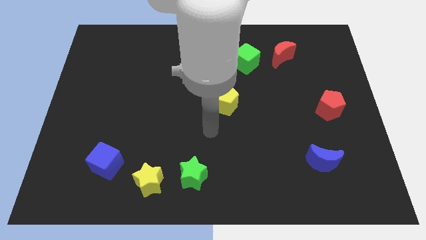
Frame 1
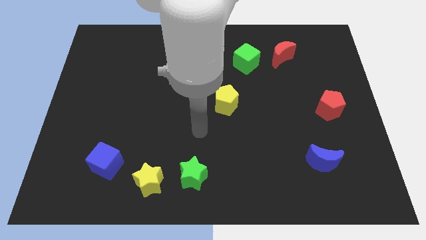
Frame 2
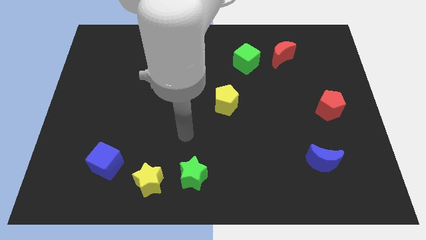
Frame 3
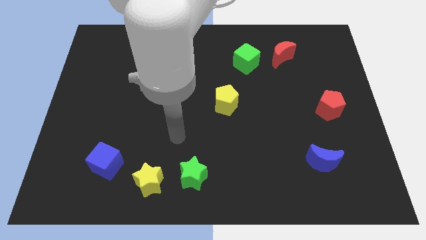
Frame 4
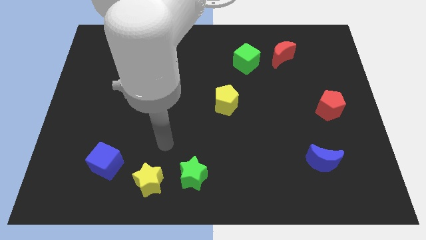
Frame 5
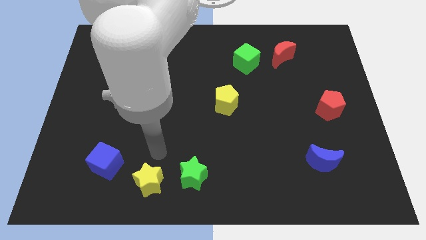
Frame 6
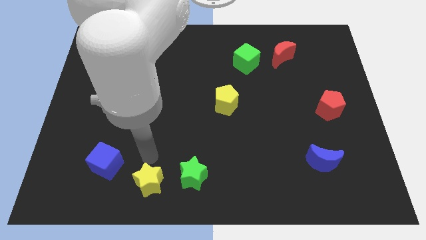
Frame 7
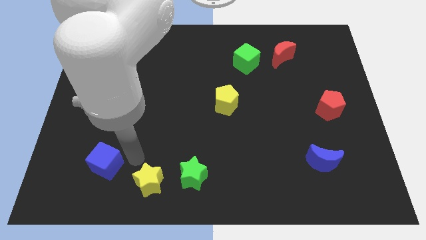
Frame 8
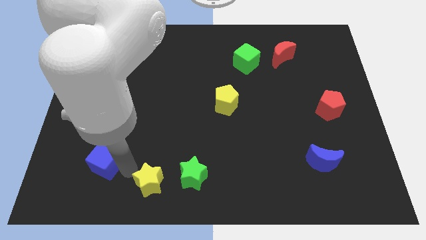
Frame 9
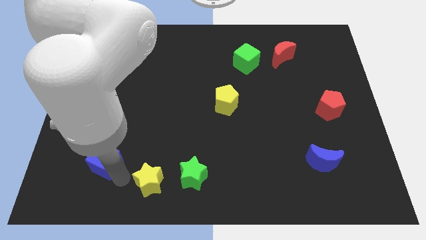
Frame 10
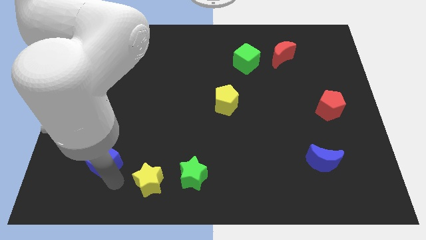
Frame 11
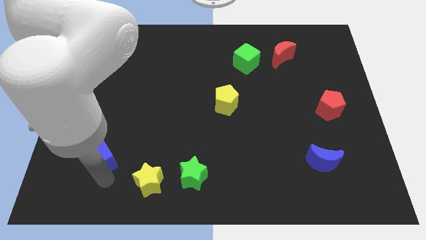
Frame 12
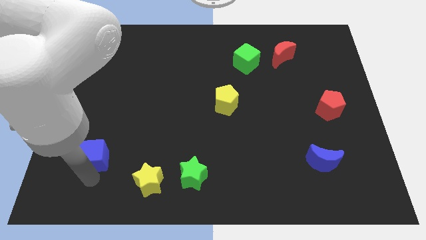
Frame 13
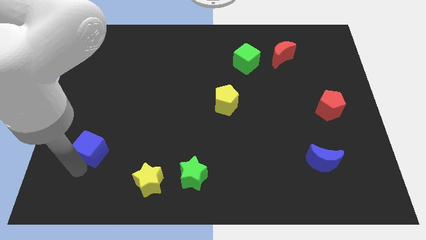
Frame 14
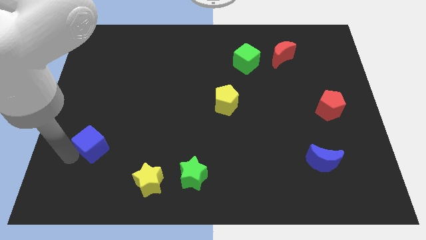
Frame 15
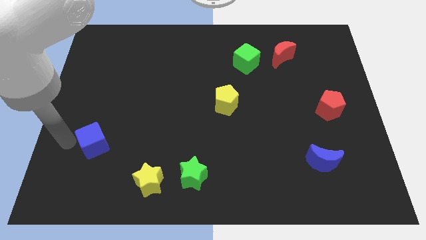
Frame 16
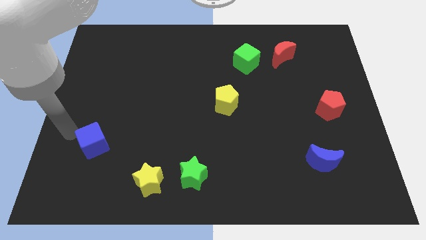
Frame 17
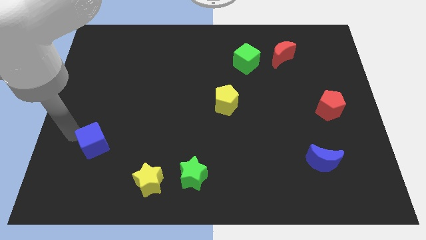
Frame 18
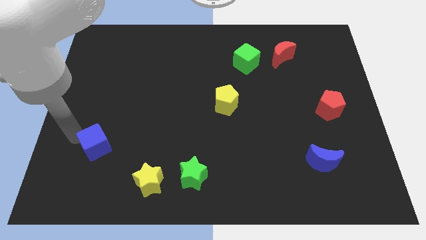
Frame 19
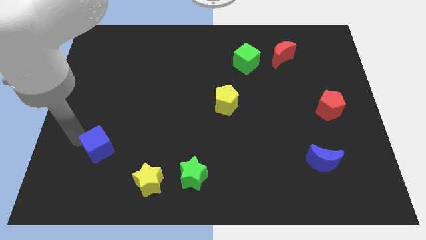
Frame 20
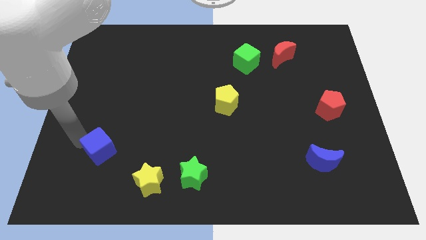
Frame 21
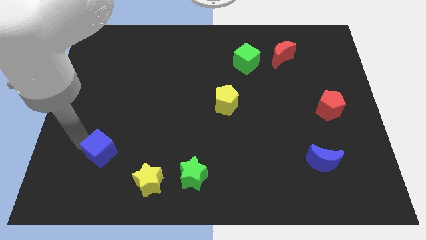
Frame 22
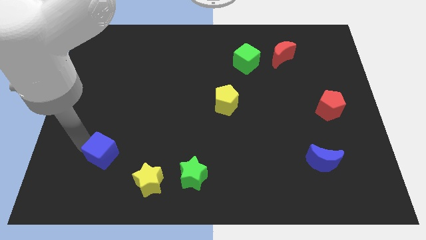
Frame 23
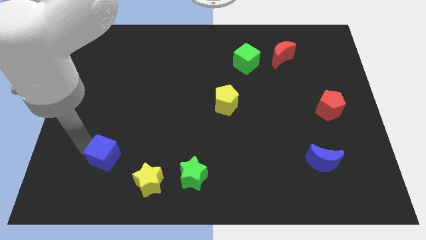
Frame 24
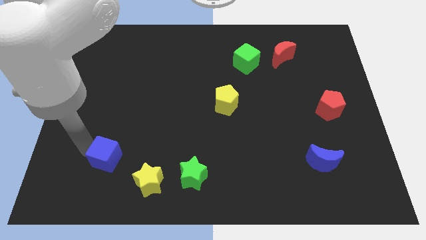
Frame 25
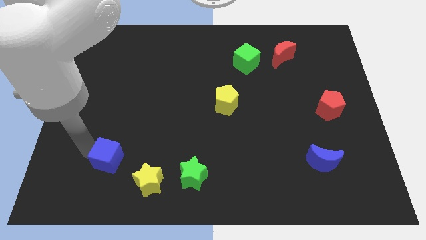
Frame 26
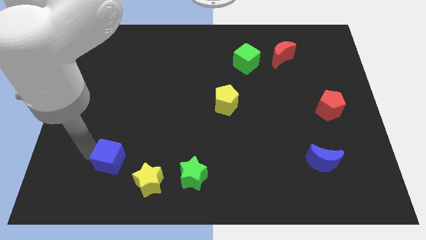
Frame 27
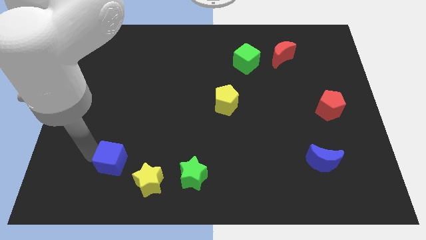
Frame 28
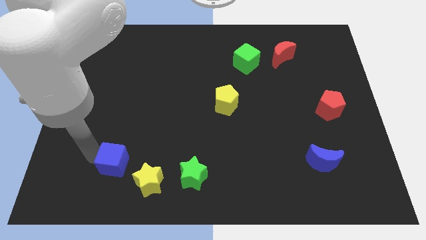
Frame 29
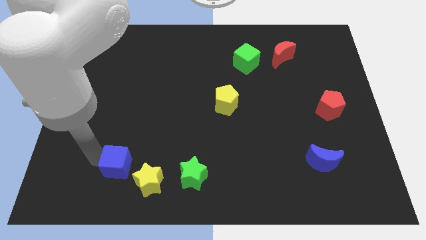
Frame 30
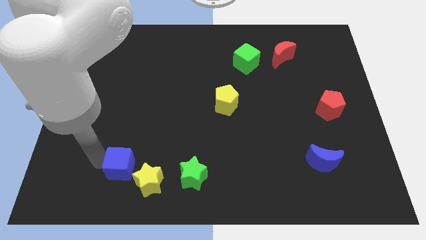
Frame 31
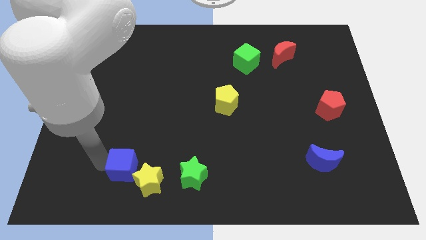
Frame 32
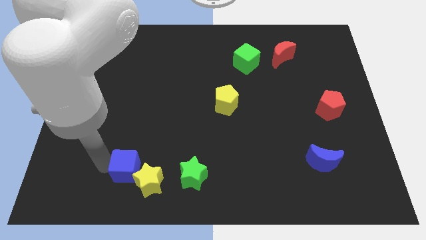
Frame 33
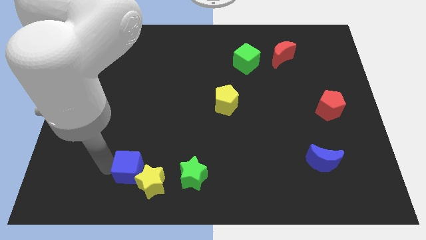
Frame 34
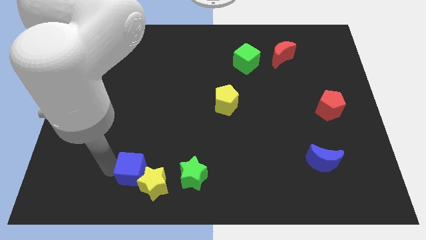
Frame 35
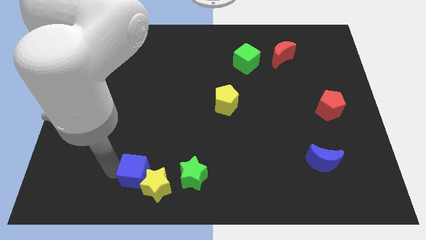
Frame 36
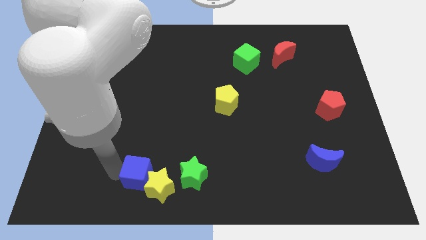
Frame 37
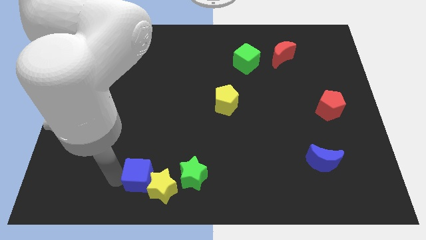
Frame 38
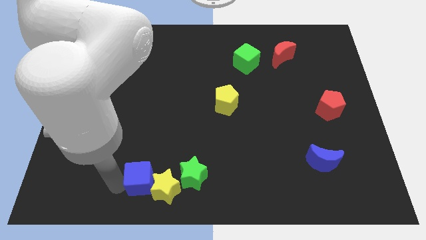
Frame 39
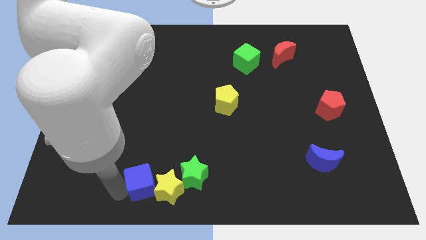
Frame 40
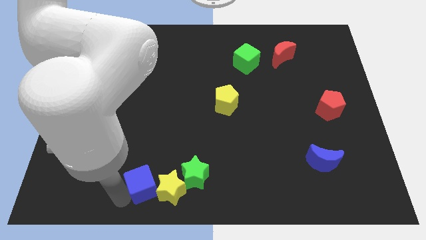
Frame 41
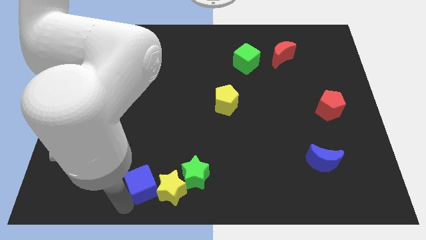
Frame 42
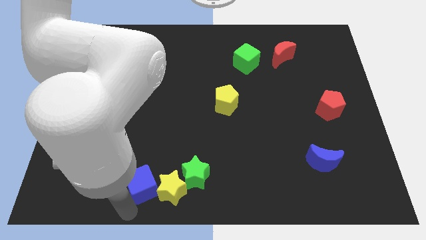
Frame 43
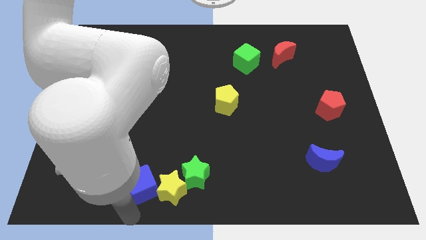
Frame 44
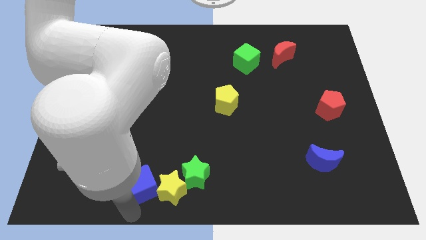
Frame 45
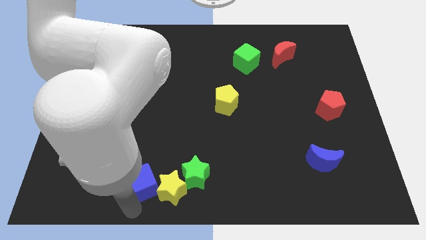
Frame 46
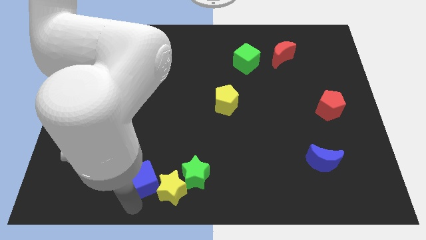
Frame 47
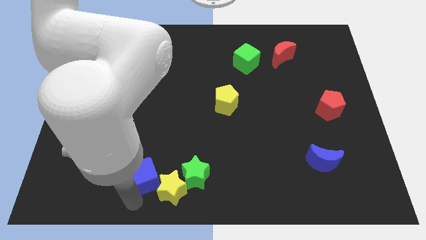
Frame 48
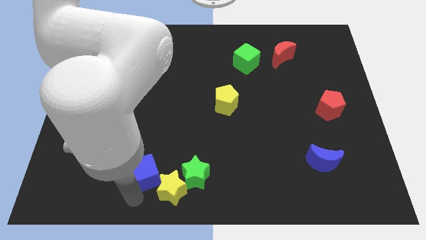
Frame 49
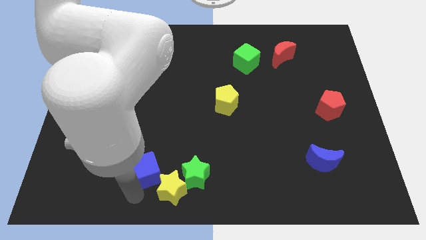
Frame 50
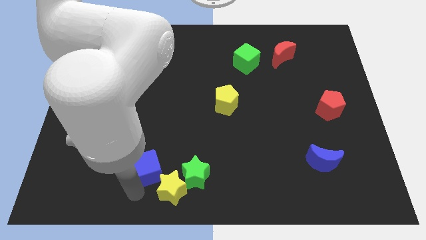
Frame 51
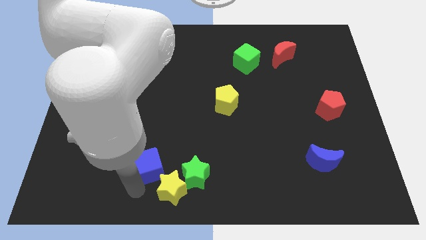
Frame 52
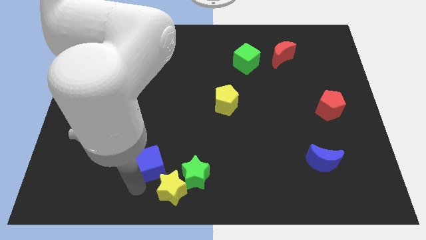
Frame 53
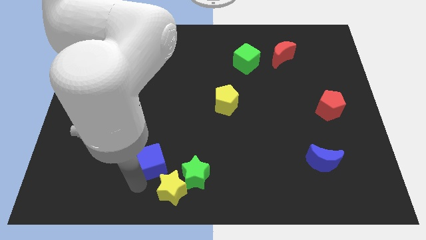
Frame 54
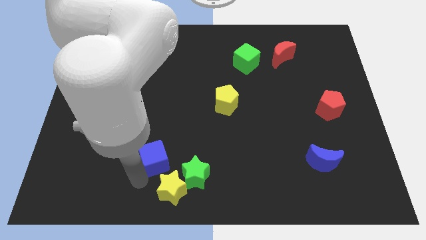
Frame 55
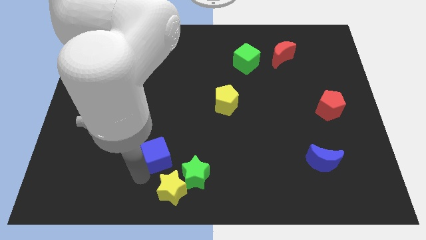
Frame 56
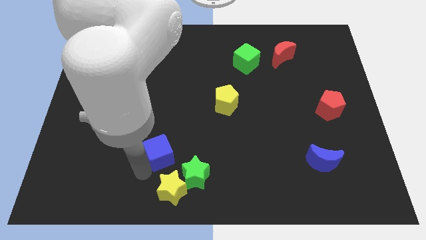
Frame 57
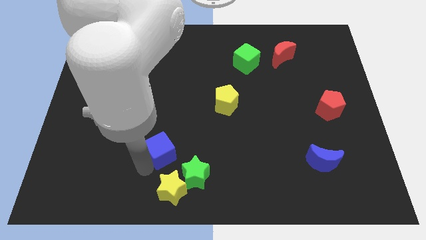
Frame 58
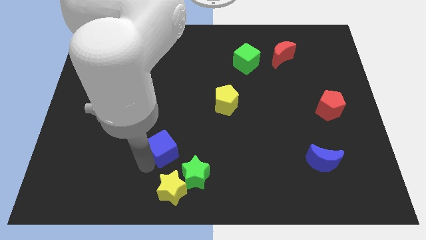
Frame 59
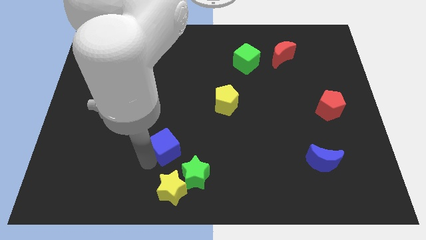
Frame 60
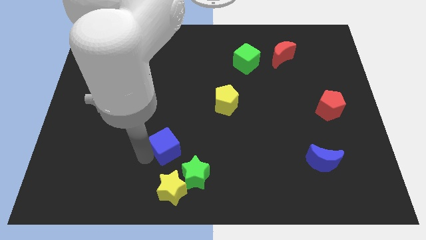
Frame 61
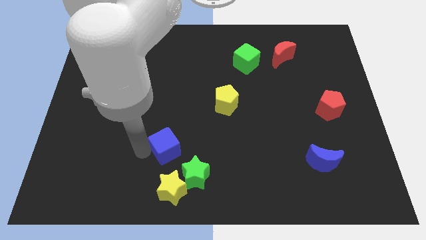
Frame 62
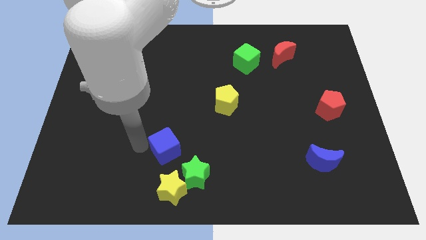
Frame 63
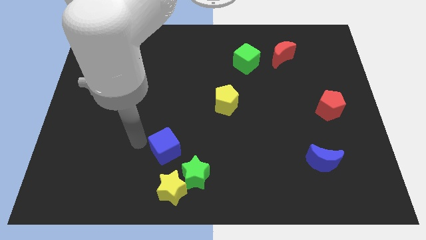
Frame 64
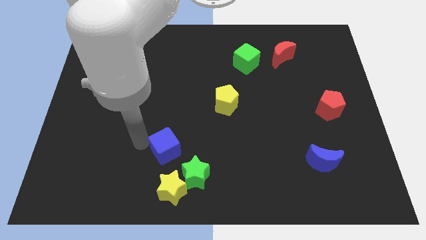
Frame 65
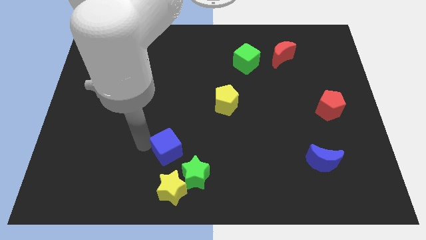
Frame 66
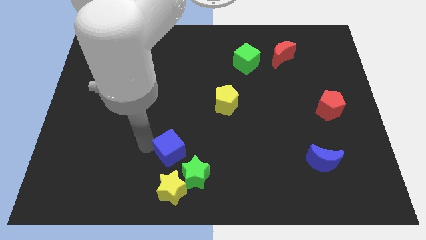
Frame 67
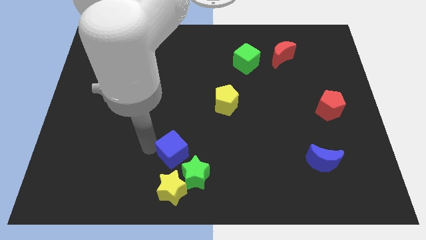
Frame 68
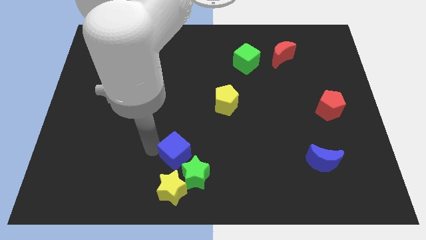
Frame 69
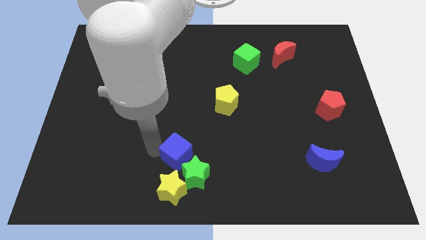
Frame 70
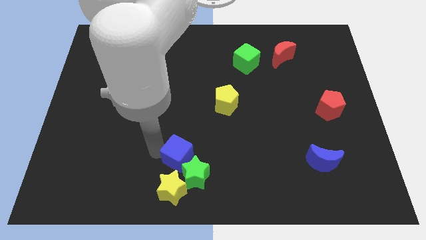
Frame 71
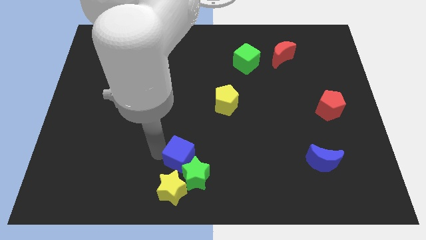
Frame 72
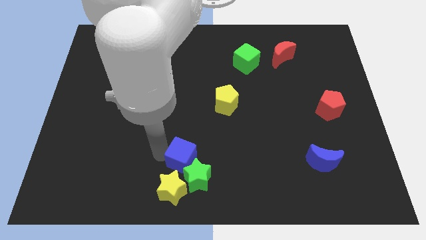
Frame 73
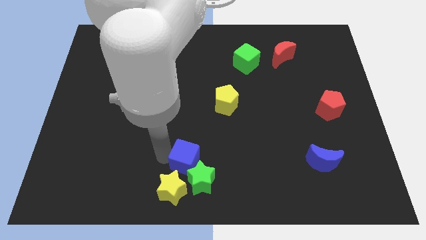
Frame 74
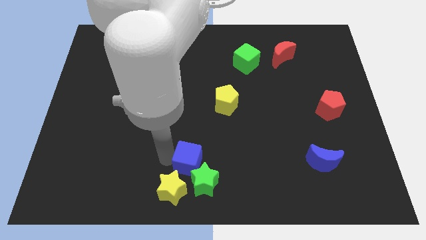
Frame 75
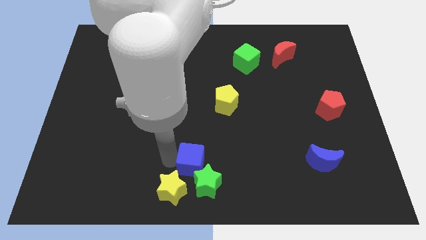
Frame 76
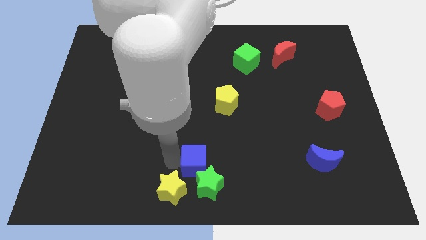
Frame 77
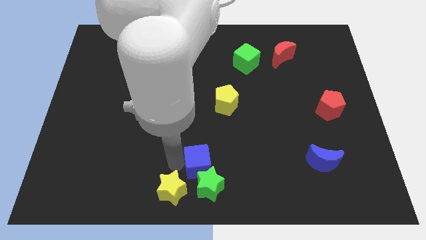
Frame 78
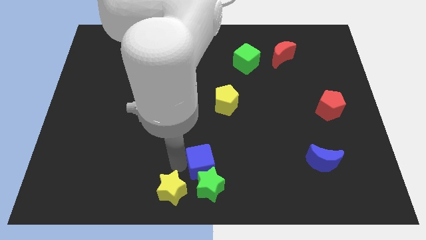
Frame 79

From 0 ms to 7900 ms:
push the blue cube to the right
